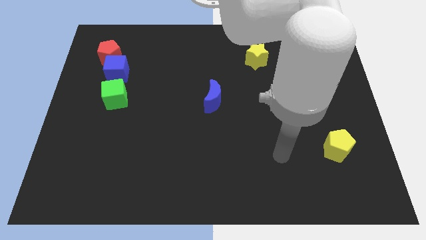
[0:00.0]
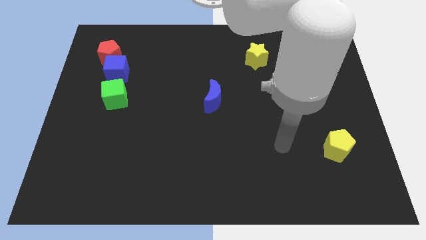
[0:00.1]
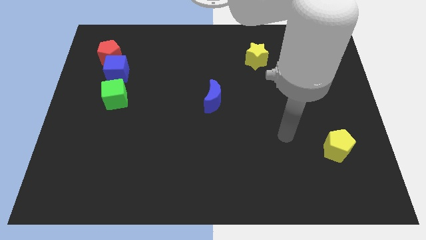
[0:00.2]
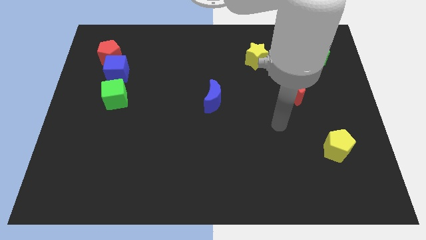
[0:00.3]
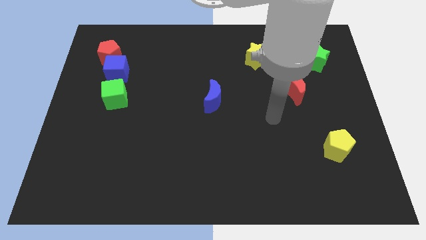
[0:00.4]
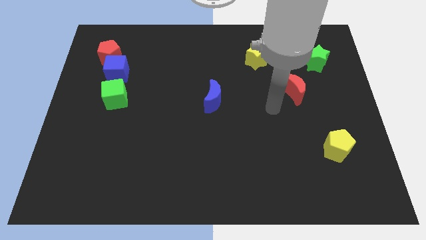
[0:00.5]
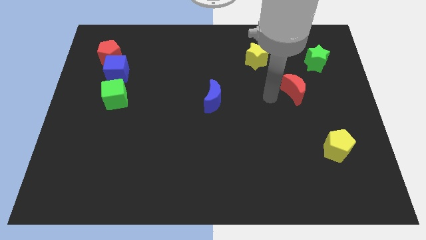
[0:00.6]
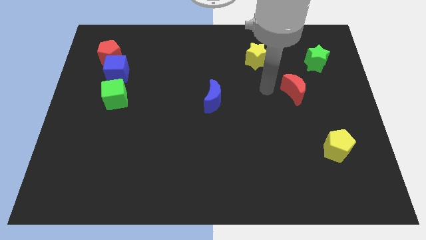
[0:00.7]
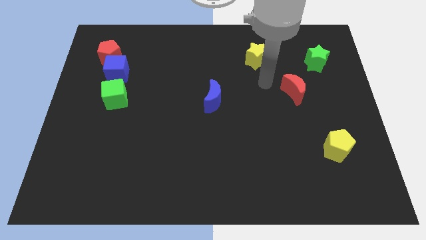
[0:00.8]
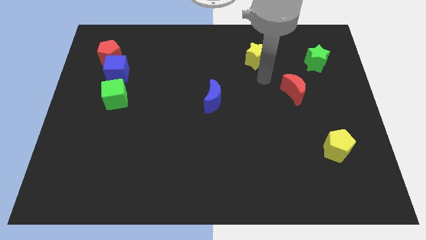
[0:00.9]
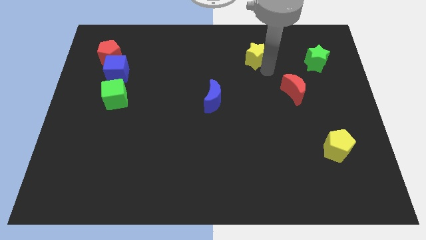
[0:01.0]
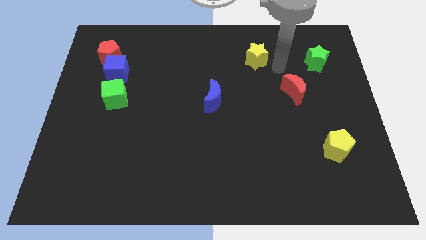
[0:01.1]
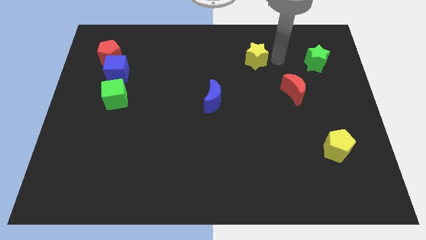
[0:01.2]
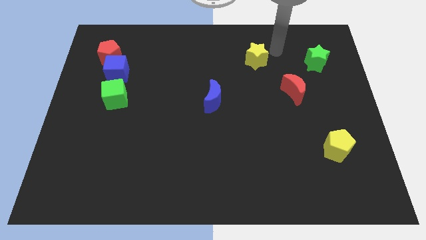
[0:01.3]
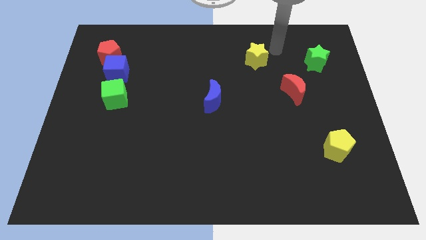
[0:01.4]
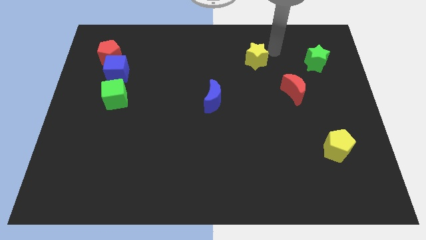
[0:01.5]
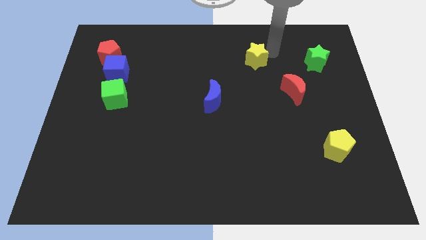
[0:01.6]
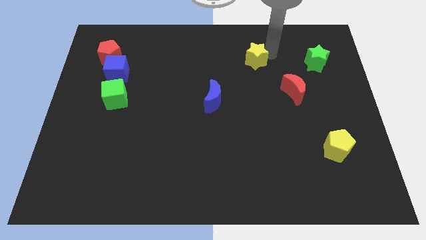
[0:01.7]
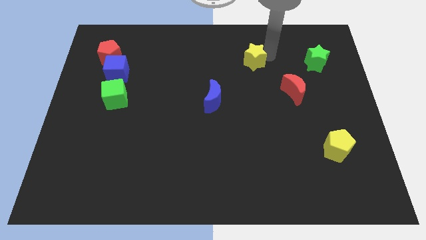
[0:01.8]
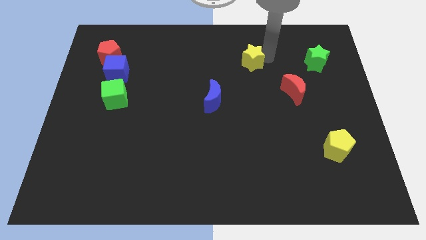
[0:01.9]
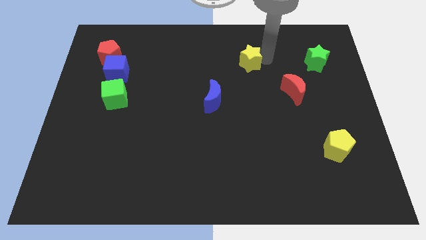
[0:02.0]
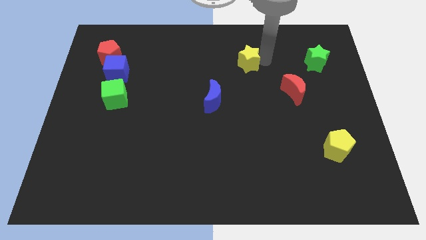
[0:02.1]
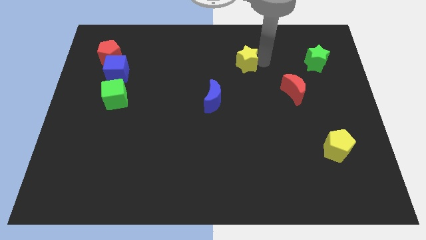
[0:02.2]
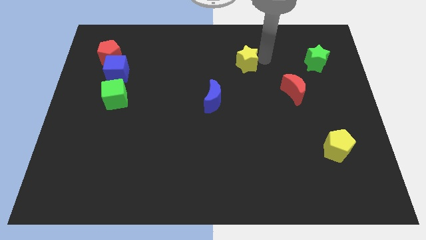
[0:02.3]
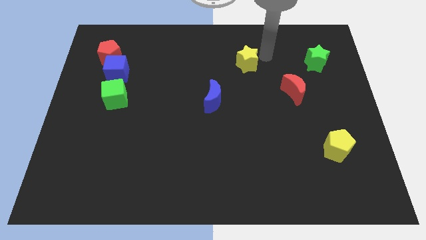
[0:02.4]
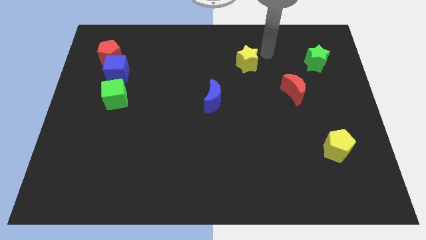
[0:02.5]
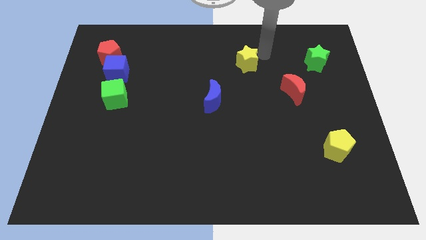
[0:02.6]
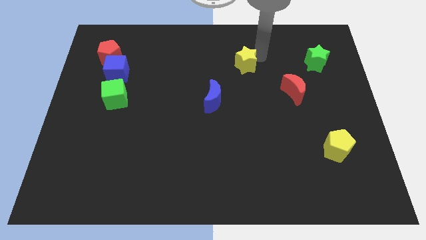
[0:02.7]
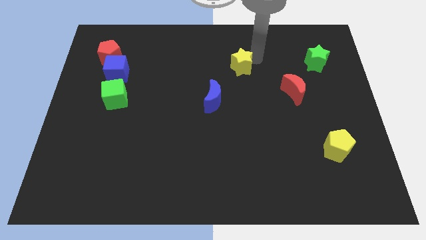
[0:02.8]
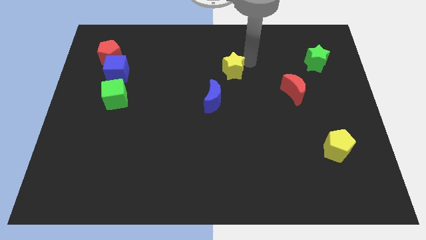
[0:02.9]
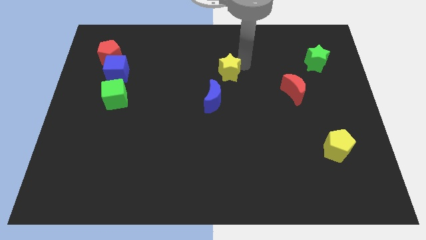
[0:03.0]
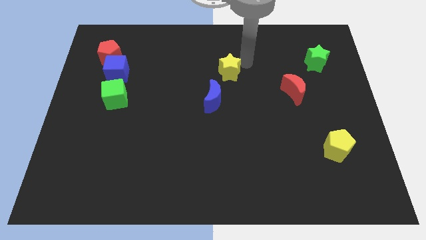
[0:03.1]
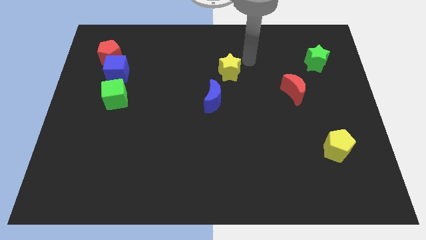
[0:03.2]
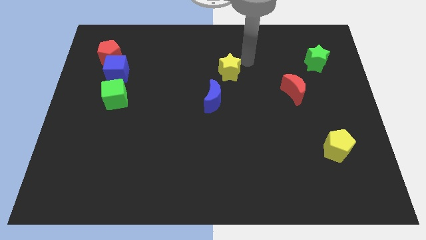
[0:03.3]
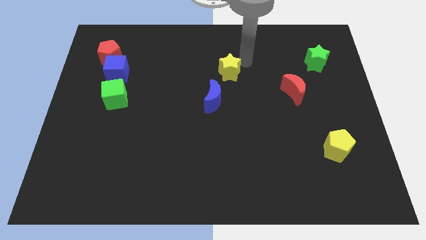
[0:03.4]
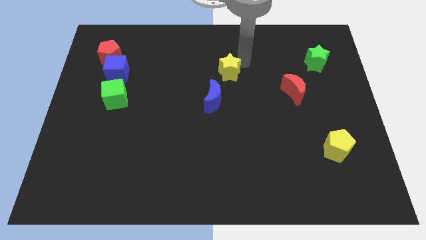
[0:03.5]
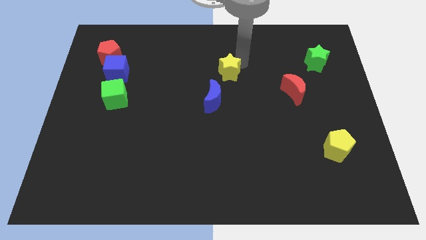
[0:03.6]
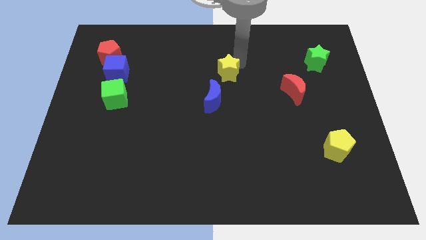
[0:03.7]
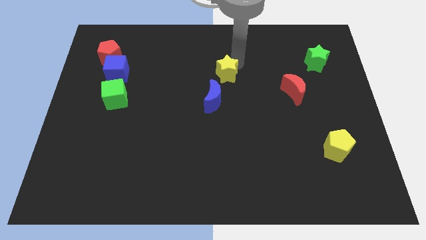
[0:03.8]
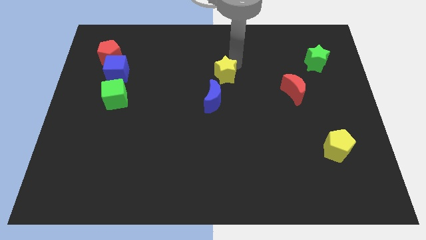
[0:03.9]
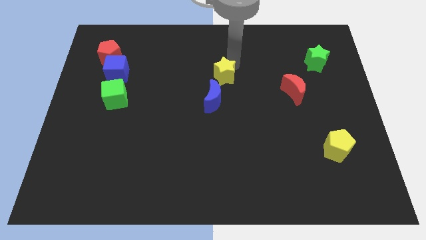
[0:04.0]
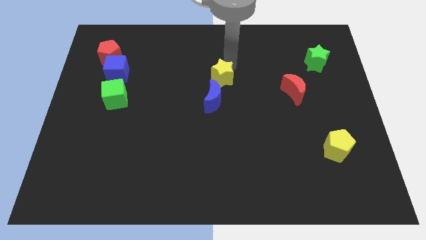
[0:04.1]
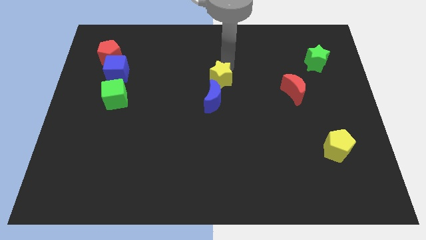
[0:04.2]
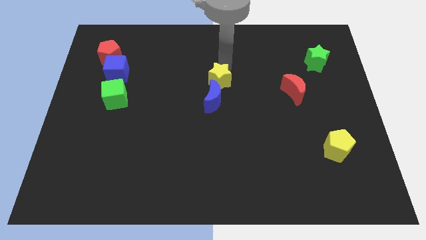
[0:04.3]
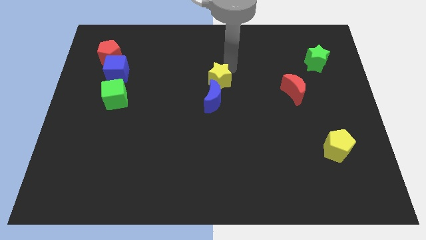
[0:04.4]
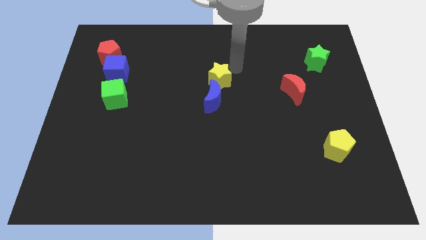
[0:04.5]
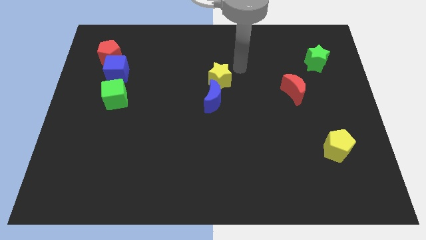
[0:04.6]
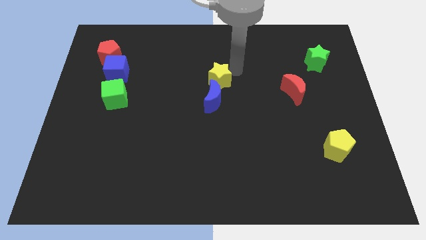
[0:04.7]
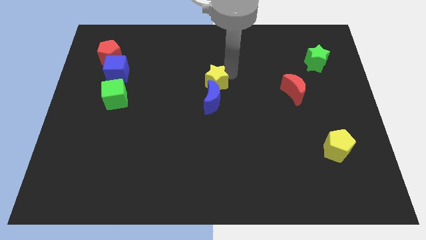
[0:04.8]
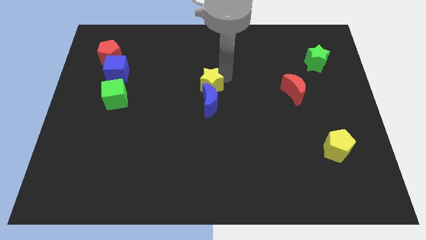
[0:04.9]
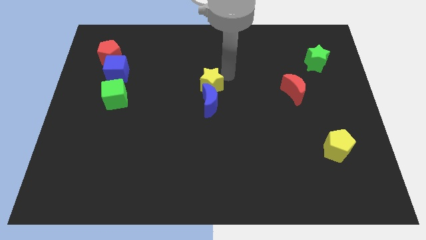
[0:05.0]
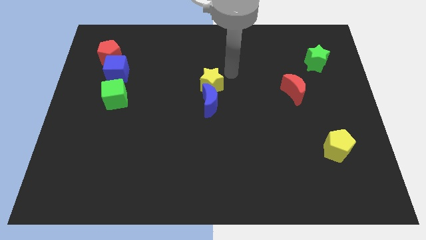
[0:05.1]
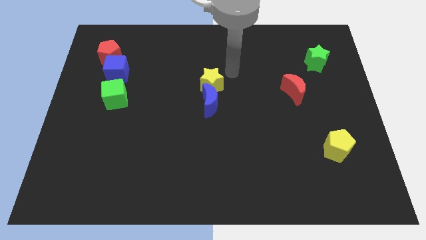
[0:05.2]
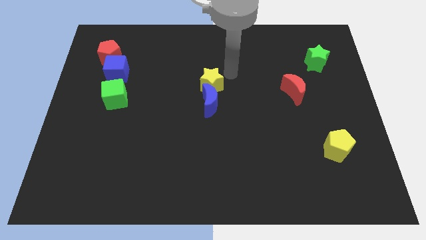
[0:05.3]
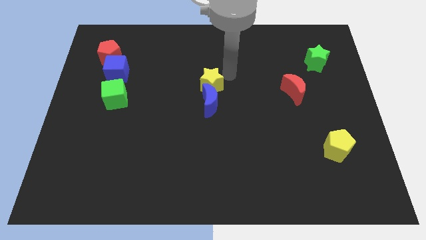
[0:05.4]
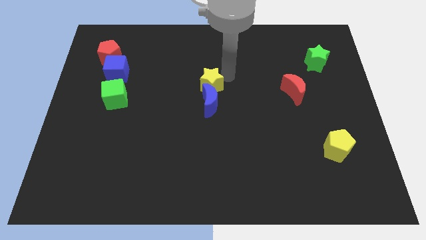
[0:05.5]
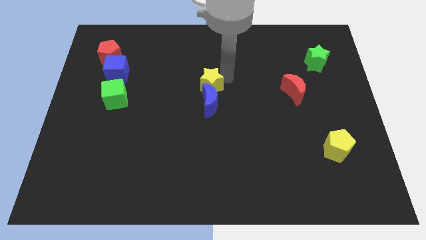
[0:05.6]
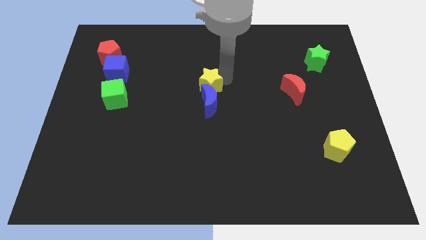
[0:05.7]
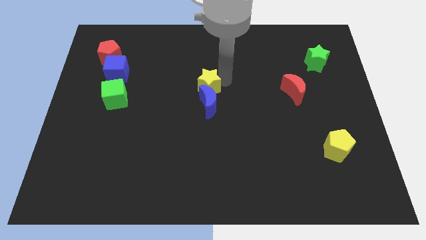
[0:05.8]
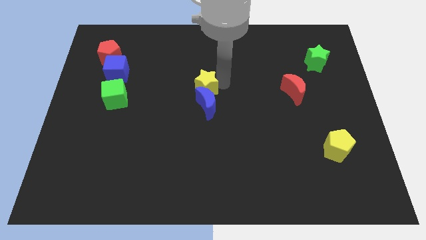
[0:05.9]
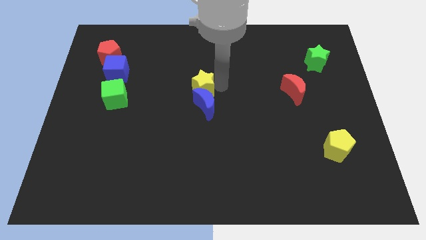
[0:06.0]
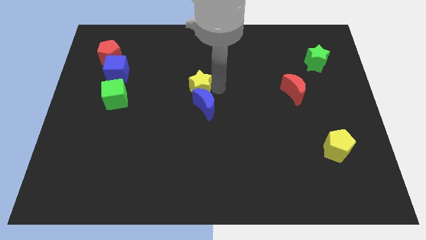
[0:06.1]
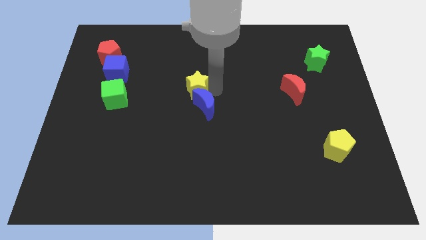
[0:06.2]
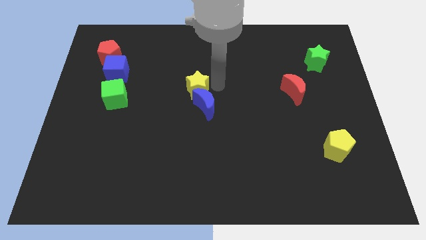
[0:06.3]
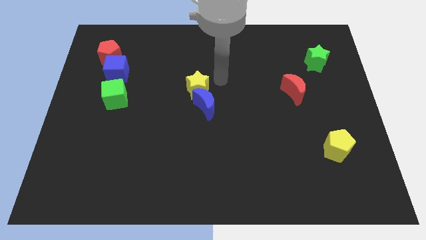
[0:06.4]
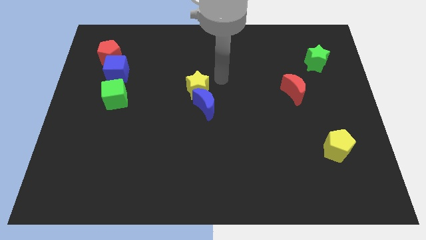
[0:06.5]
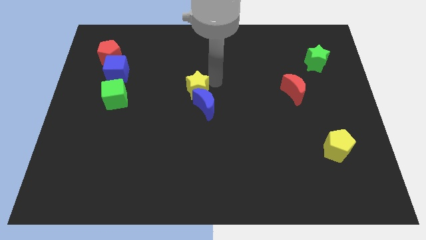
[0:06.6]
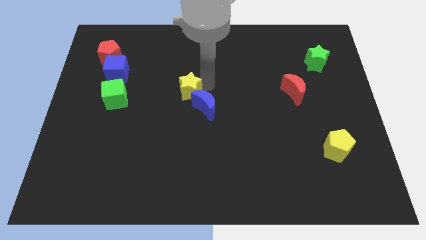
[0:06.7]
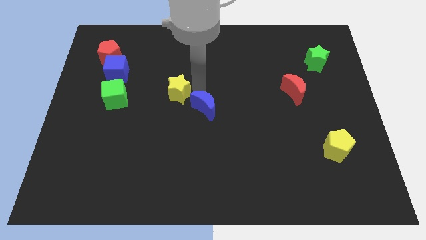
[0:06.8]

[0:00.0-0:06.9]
slide the yellow star just left of the blue moon

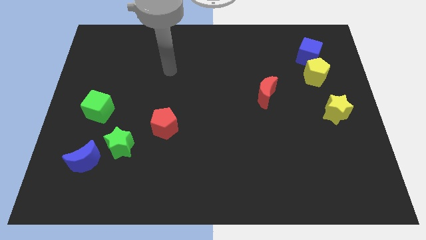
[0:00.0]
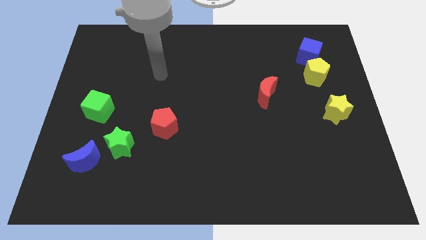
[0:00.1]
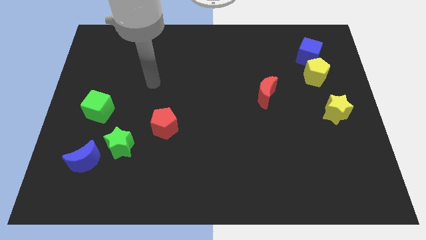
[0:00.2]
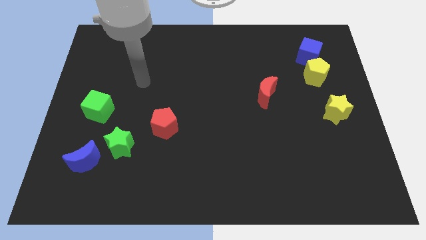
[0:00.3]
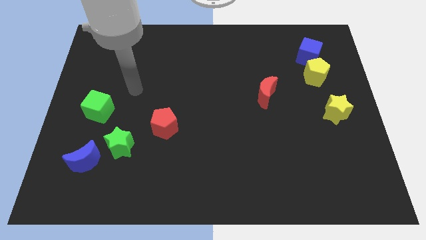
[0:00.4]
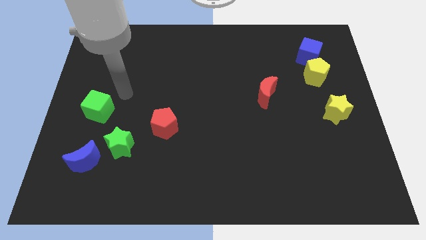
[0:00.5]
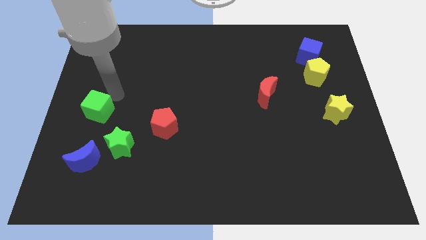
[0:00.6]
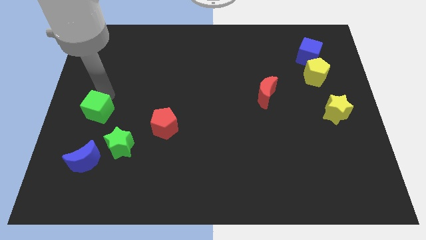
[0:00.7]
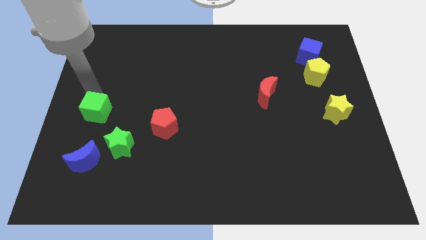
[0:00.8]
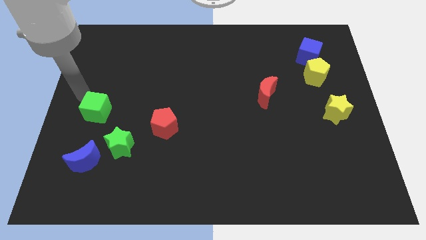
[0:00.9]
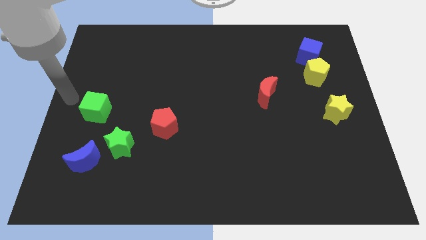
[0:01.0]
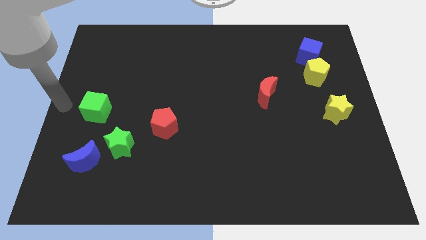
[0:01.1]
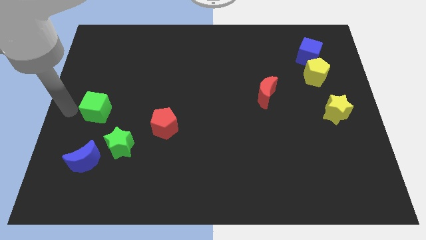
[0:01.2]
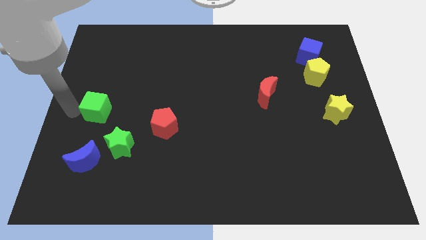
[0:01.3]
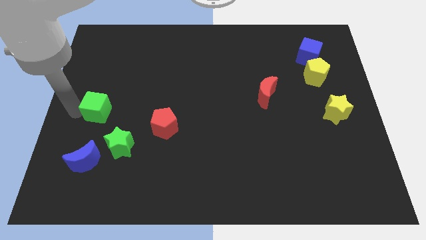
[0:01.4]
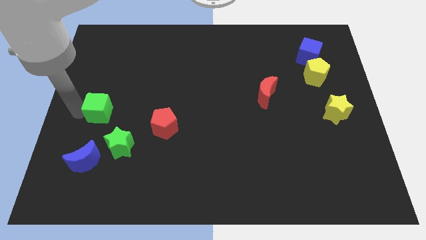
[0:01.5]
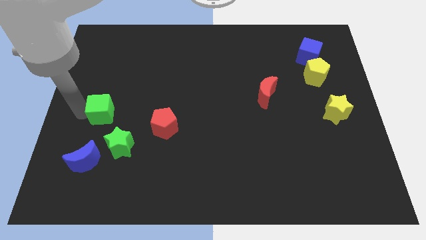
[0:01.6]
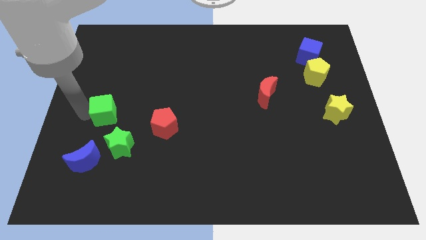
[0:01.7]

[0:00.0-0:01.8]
put the green cube to the top of the green star
